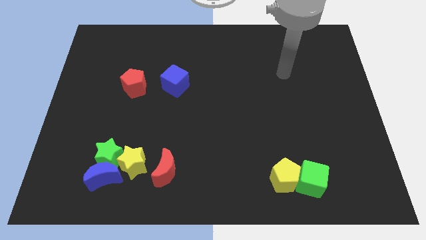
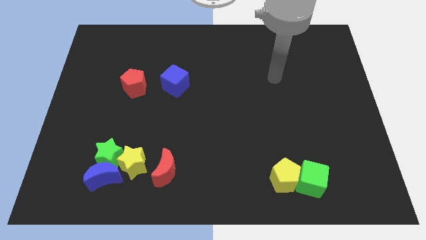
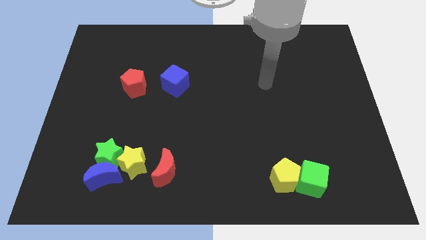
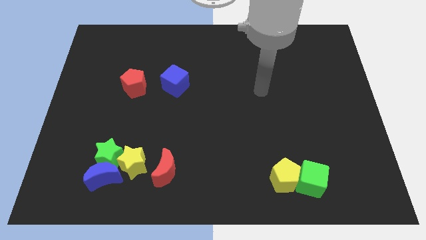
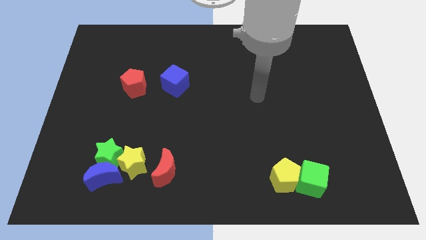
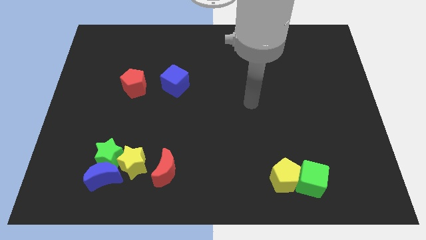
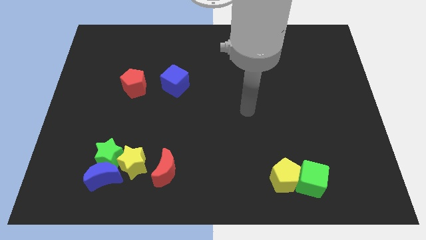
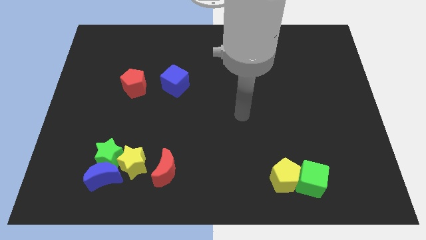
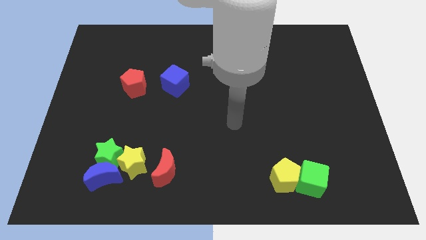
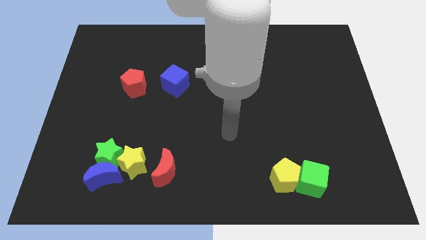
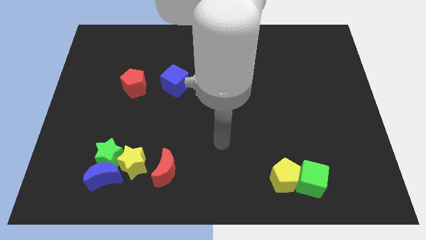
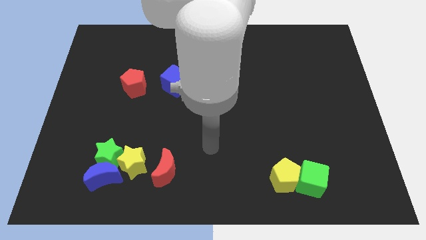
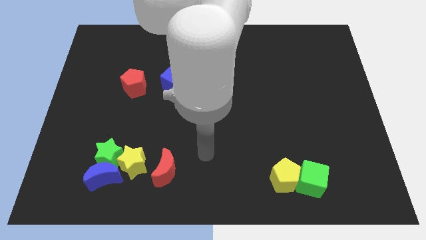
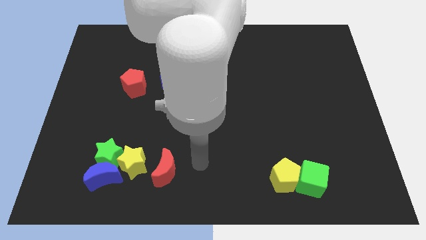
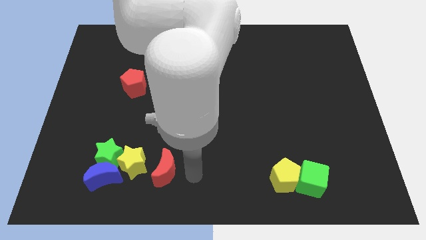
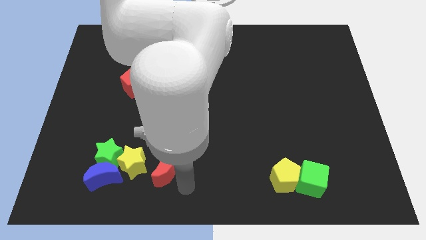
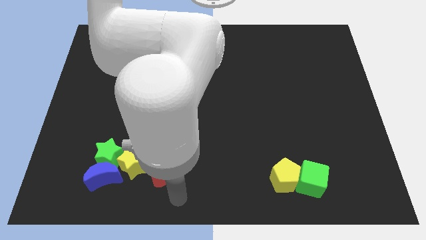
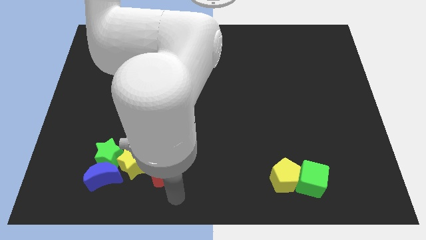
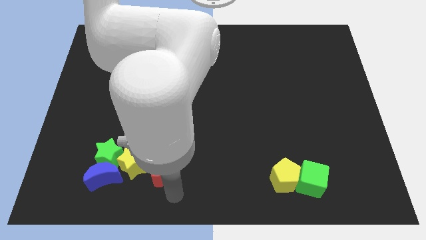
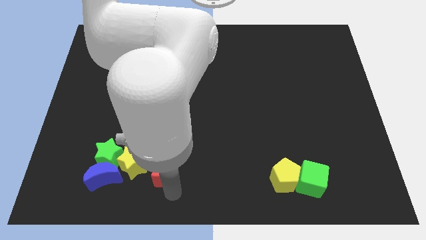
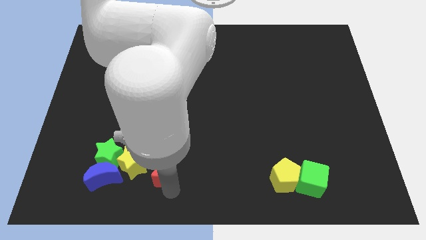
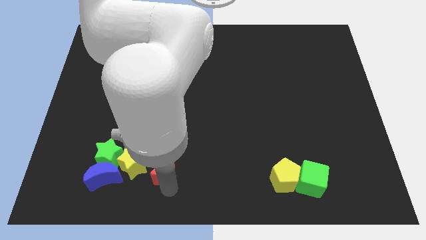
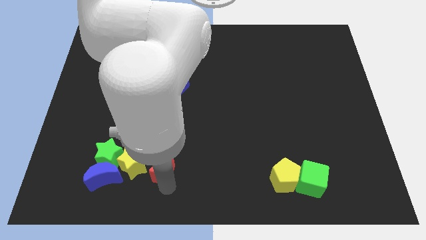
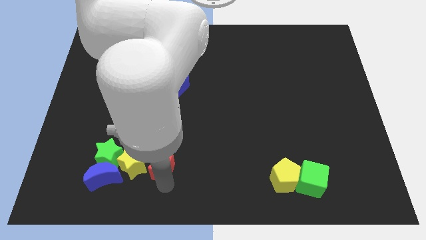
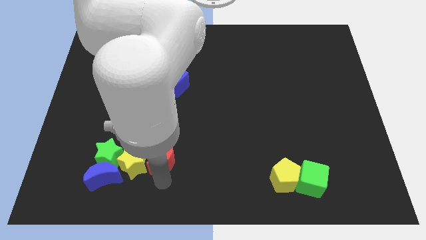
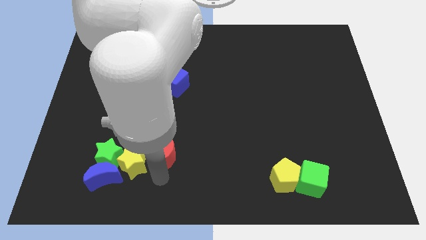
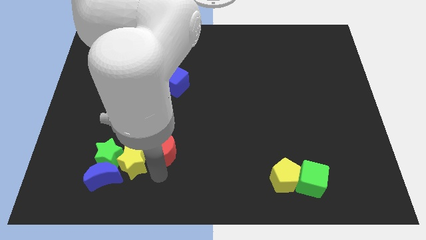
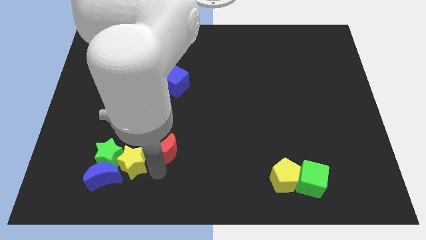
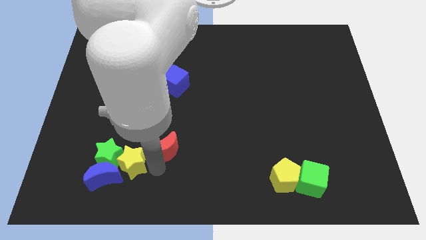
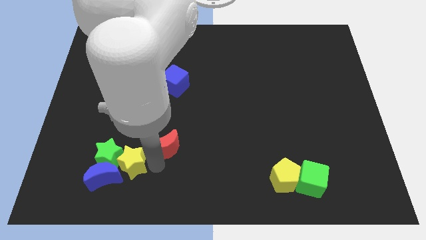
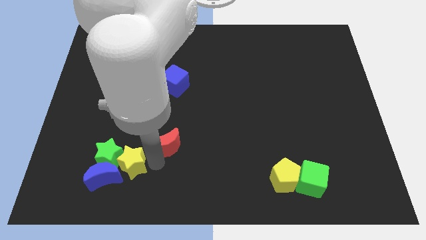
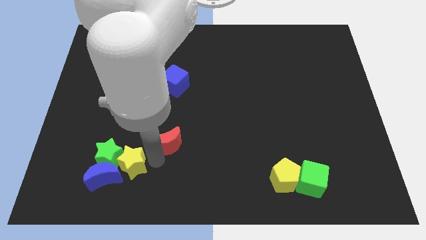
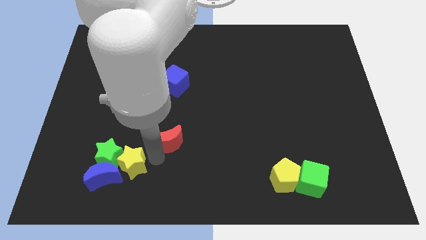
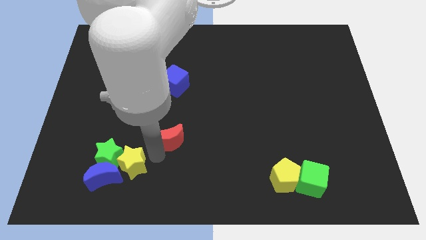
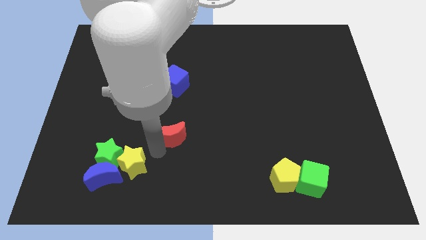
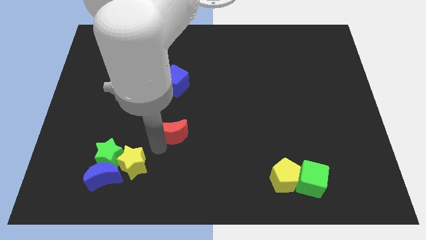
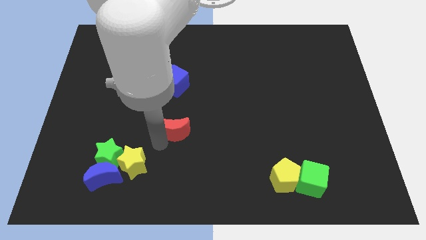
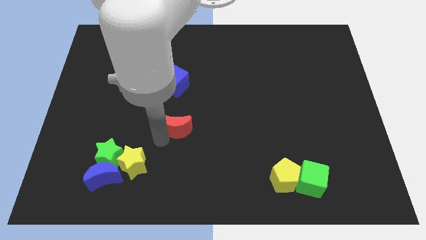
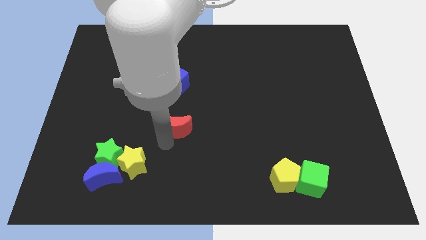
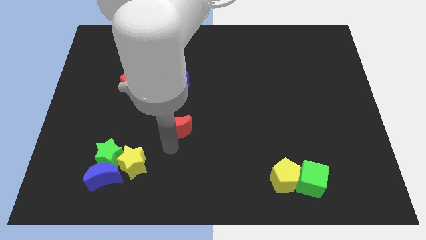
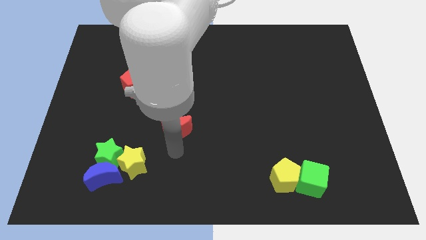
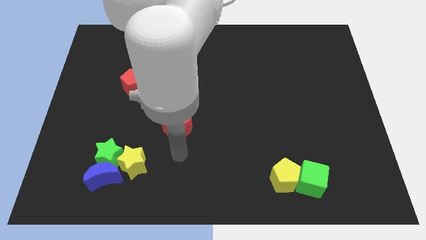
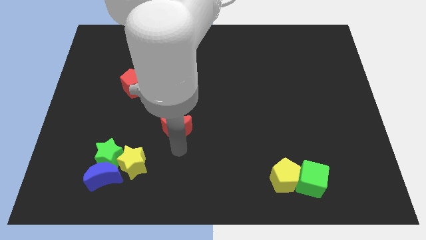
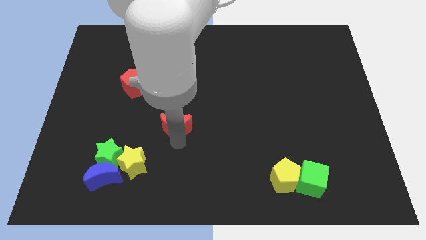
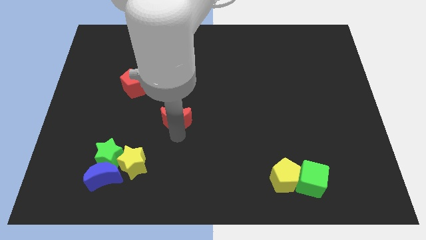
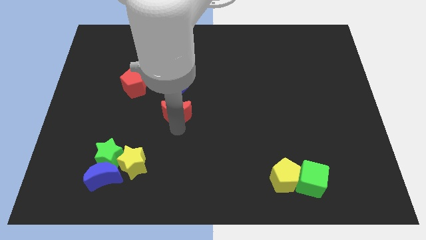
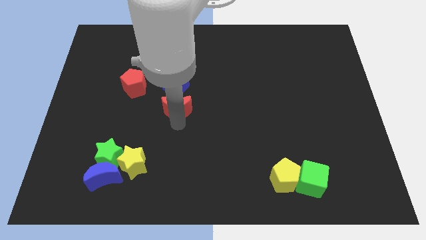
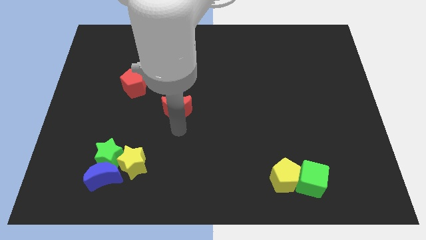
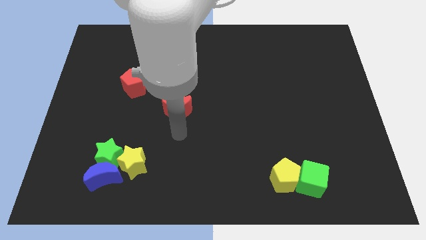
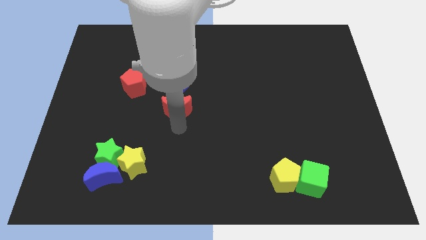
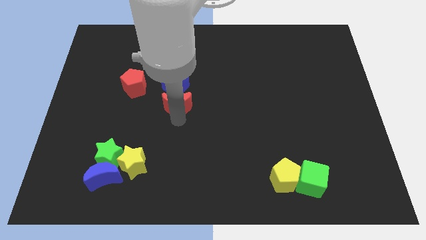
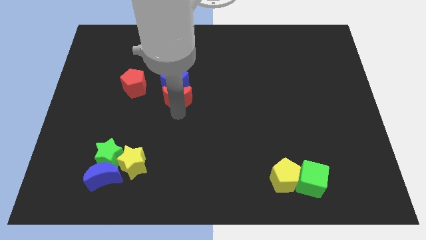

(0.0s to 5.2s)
move the red moon next to the blue cube

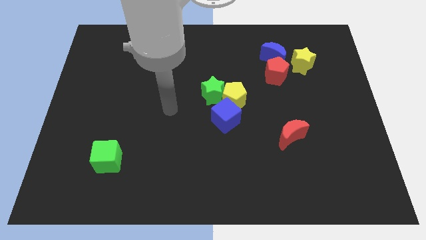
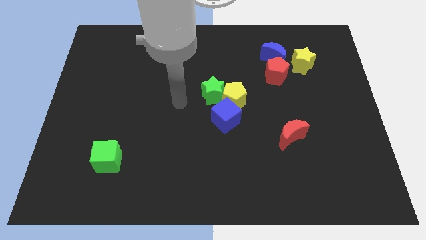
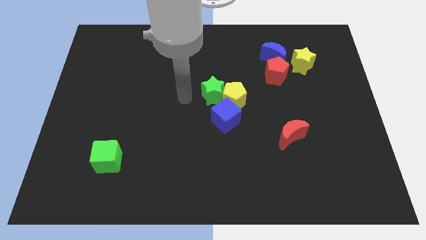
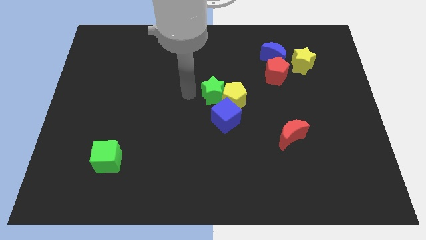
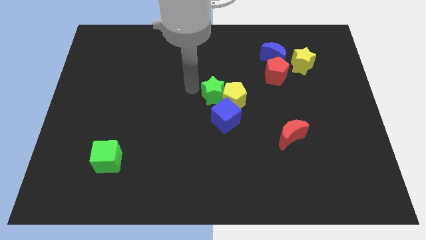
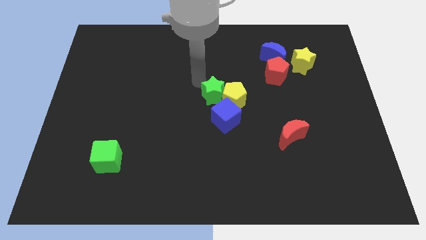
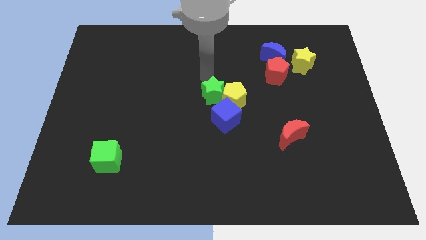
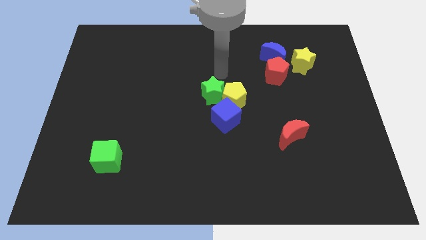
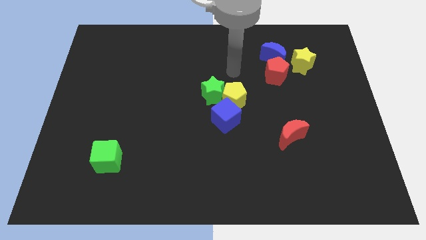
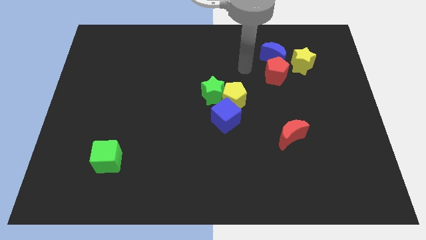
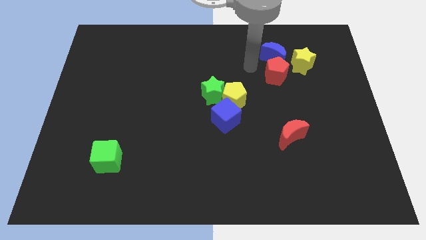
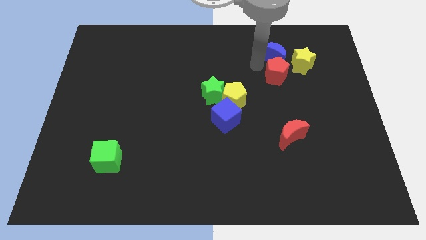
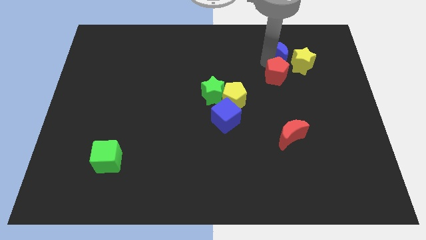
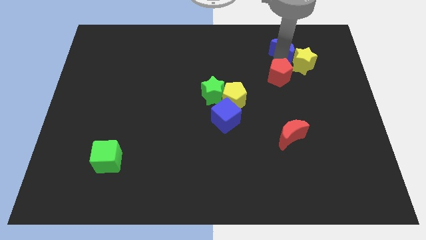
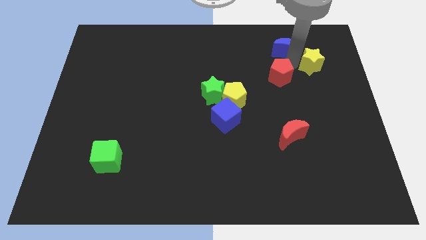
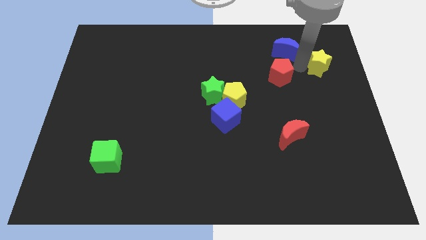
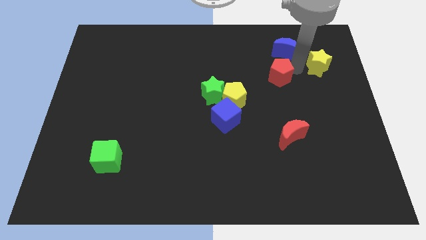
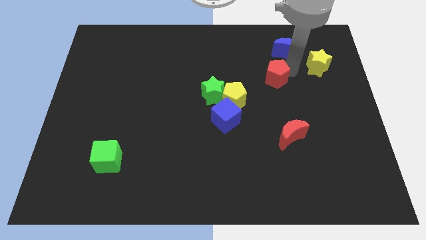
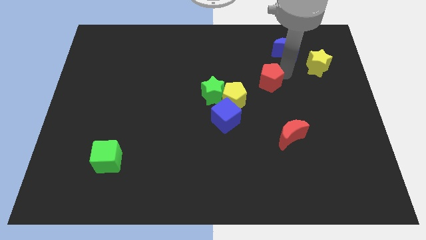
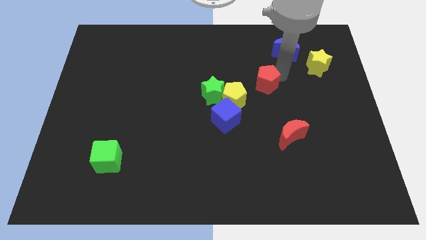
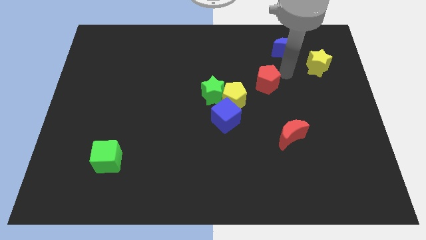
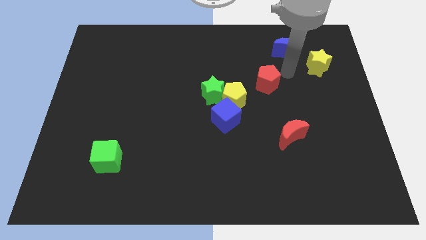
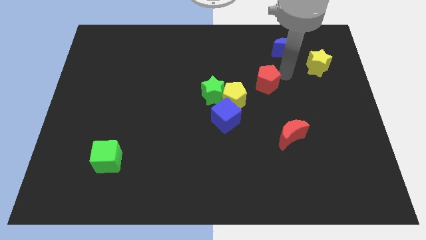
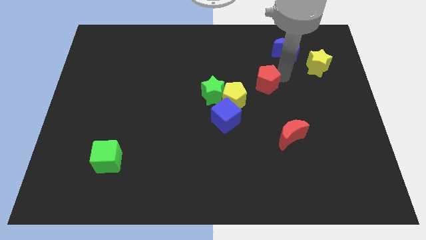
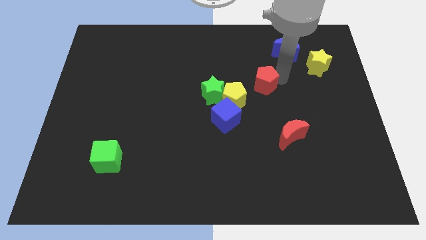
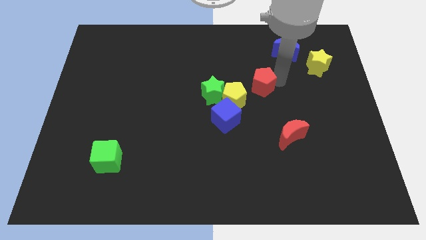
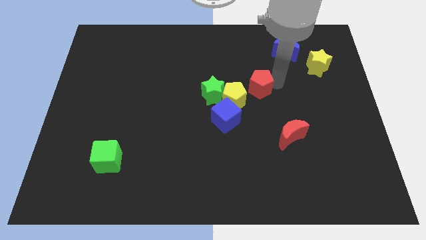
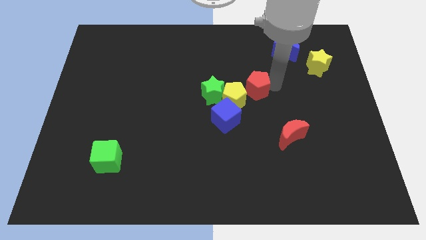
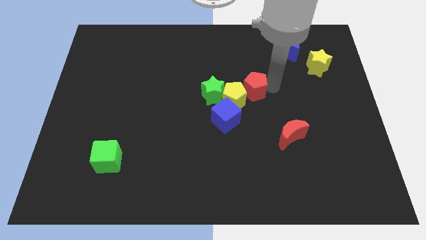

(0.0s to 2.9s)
push the red pentagon next to the yellow pentagon
